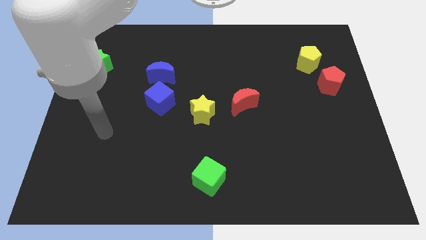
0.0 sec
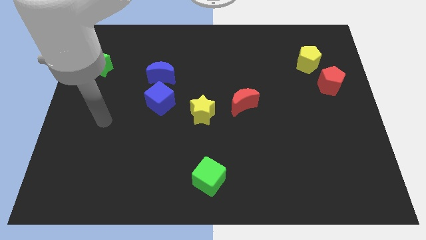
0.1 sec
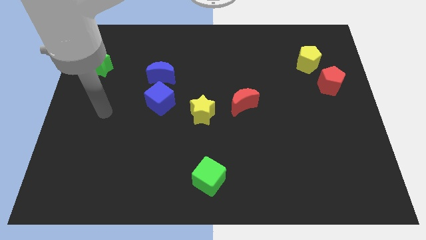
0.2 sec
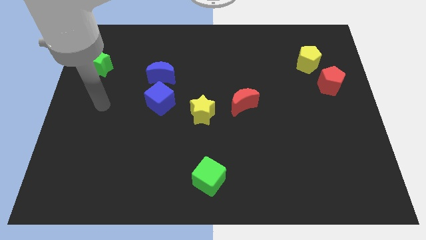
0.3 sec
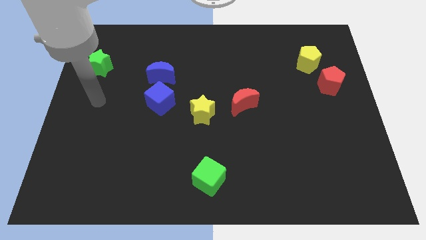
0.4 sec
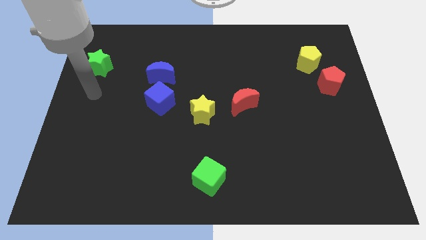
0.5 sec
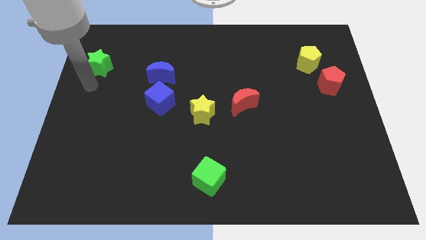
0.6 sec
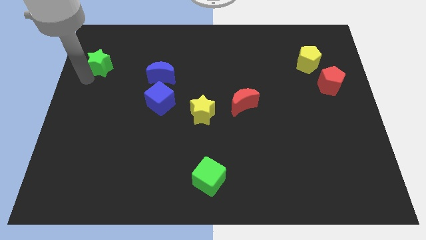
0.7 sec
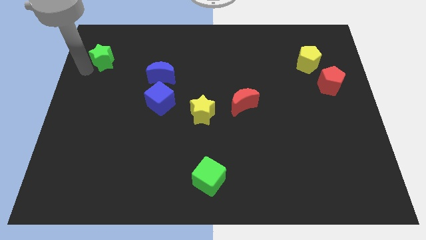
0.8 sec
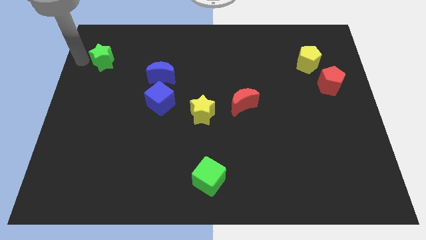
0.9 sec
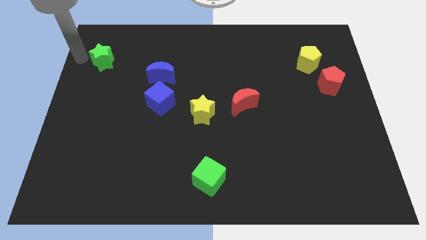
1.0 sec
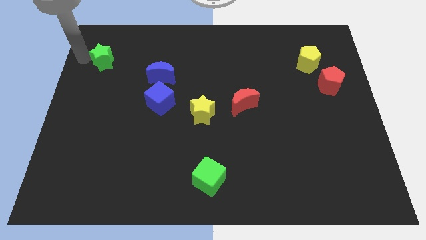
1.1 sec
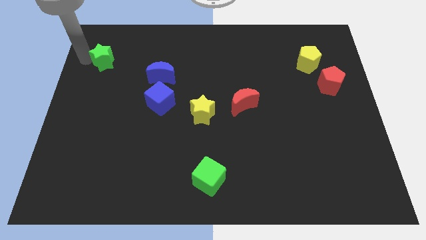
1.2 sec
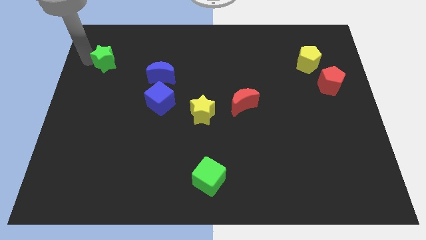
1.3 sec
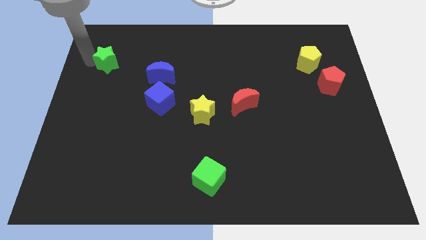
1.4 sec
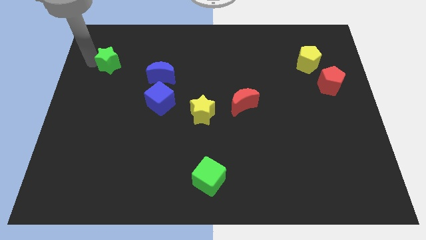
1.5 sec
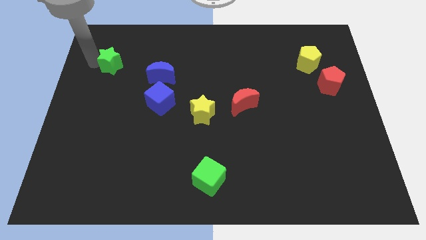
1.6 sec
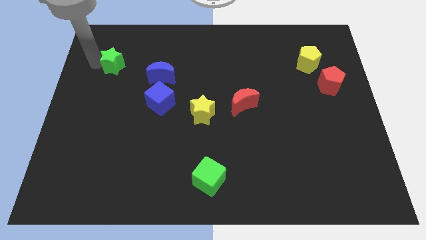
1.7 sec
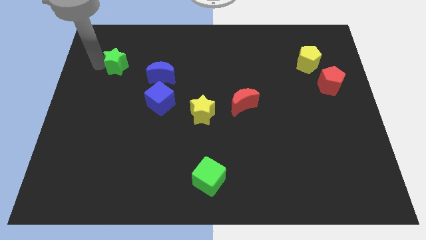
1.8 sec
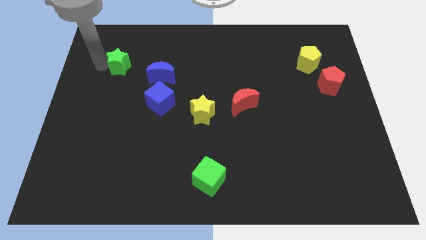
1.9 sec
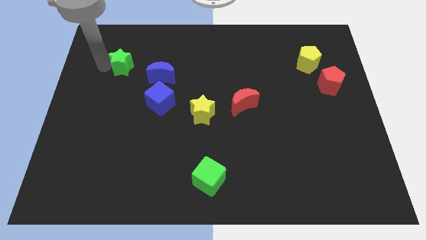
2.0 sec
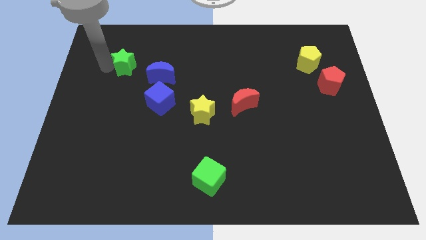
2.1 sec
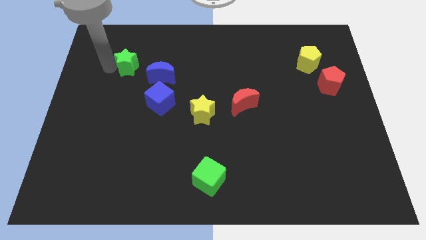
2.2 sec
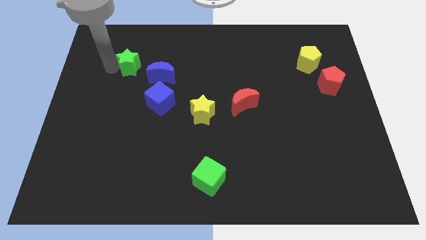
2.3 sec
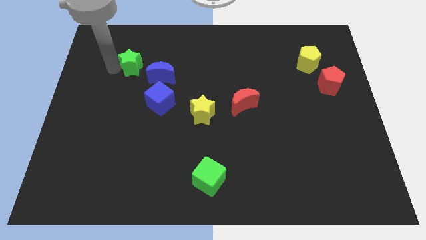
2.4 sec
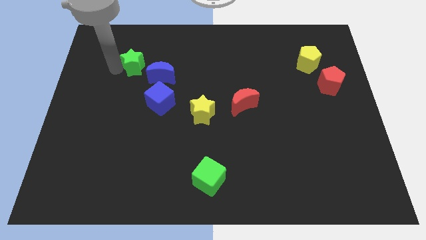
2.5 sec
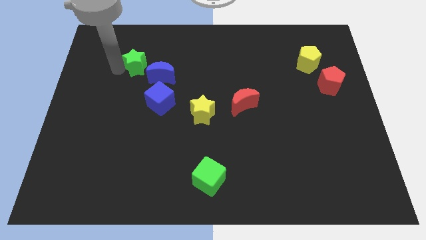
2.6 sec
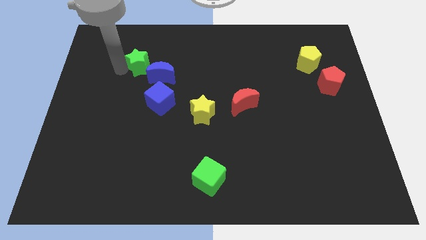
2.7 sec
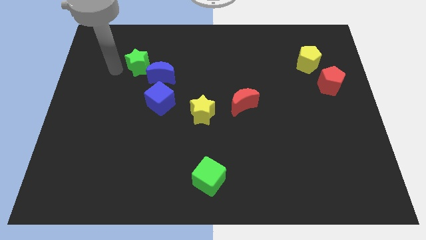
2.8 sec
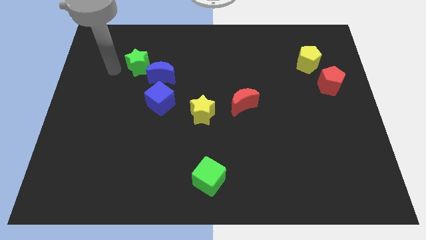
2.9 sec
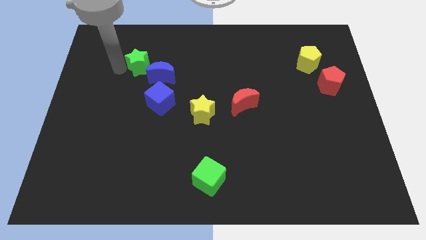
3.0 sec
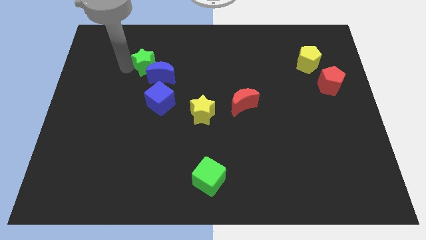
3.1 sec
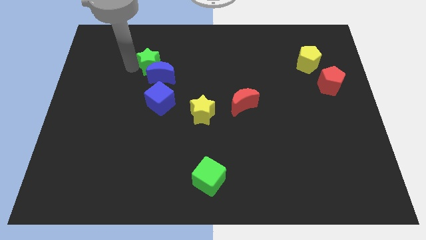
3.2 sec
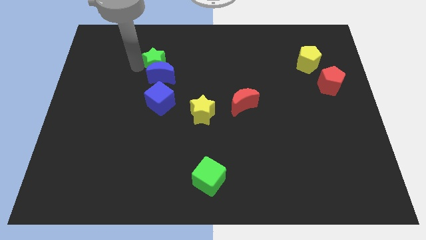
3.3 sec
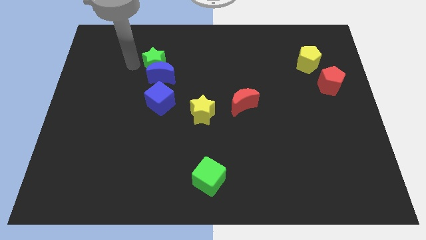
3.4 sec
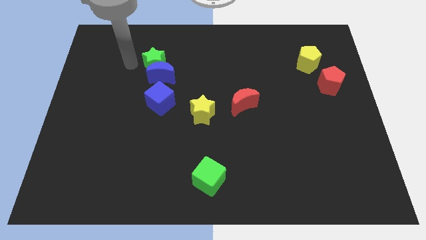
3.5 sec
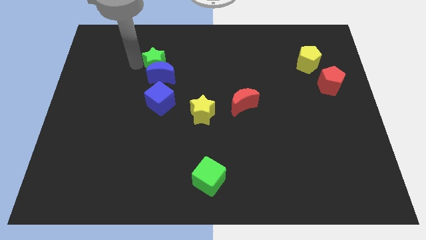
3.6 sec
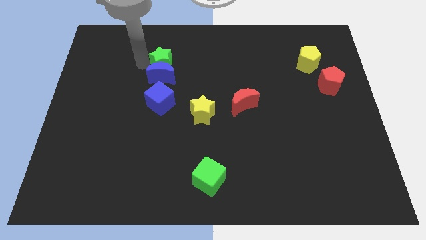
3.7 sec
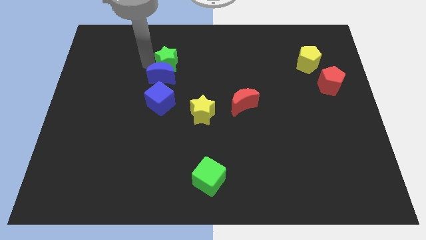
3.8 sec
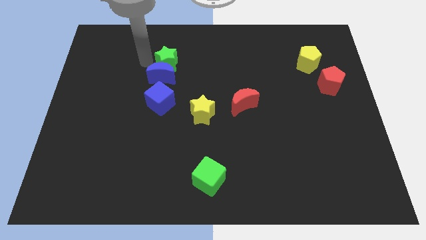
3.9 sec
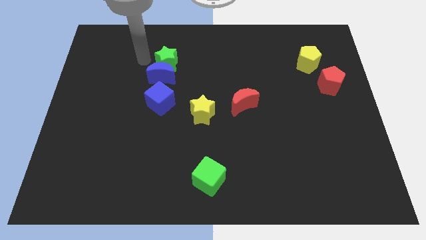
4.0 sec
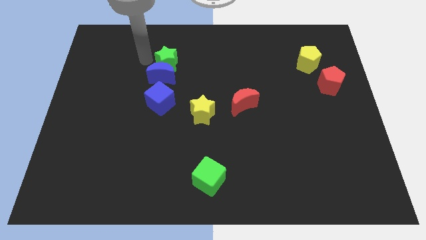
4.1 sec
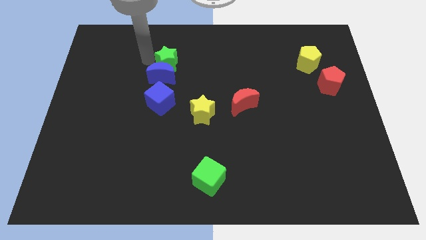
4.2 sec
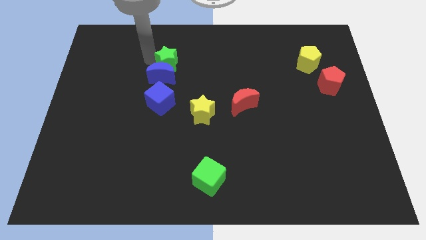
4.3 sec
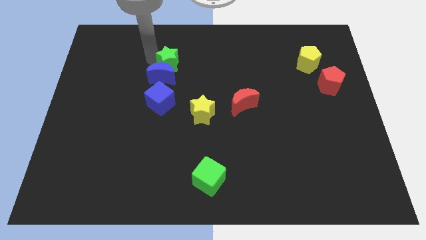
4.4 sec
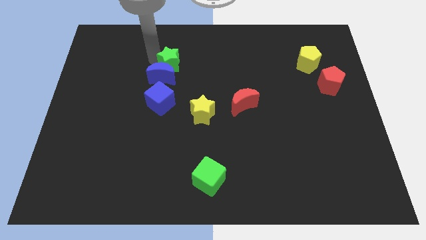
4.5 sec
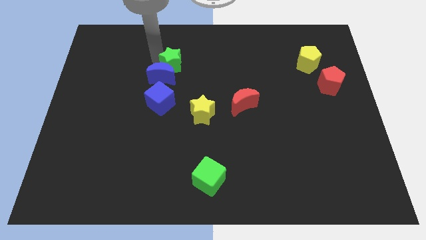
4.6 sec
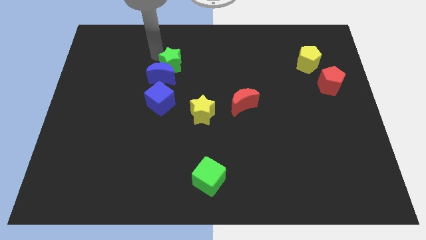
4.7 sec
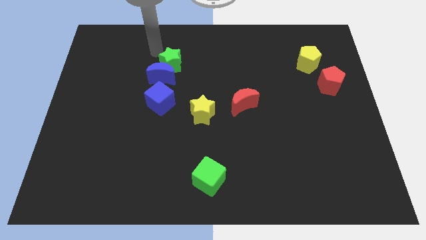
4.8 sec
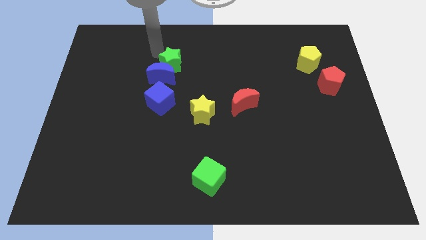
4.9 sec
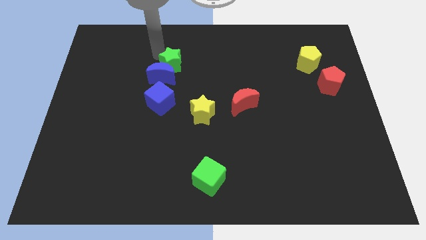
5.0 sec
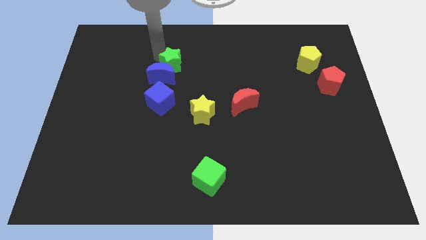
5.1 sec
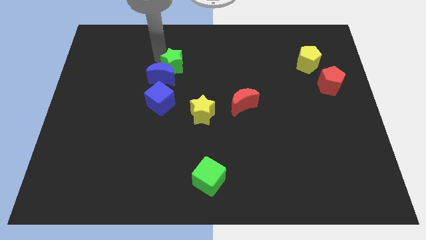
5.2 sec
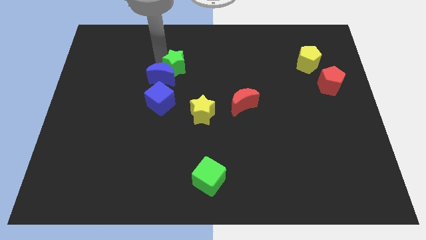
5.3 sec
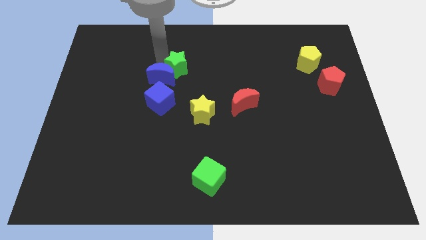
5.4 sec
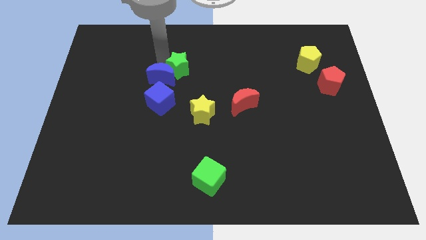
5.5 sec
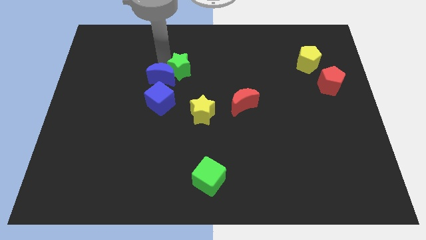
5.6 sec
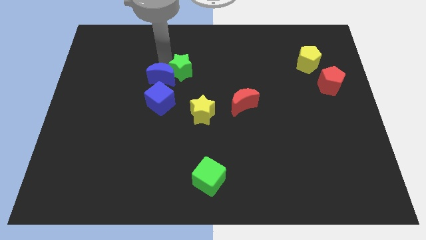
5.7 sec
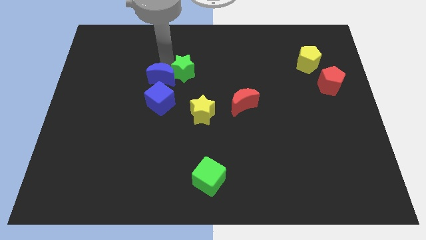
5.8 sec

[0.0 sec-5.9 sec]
slide the green star to the middle of the board
